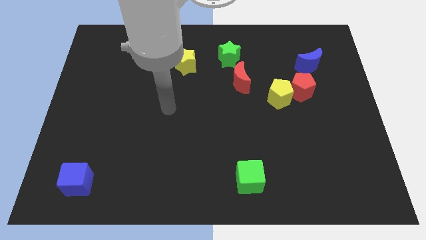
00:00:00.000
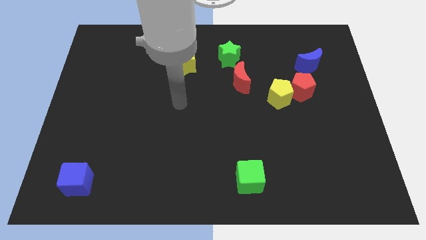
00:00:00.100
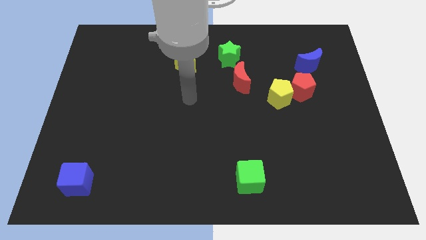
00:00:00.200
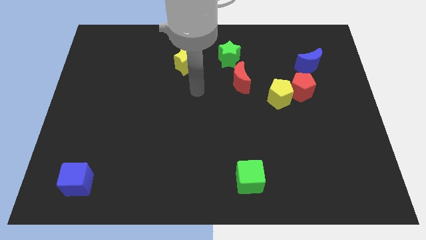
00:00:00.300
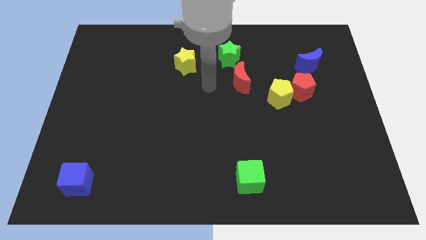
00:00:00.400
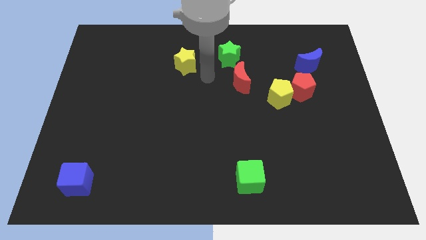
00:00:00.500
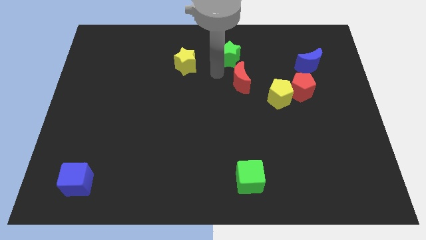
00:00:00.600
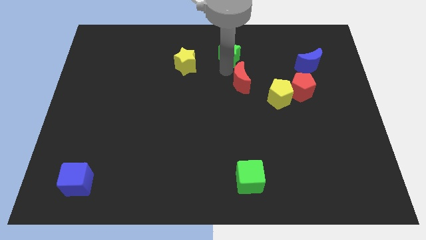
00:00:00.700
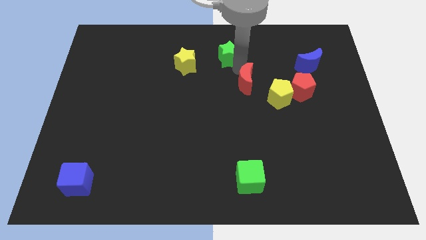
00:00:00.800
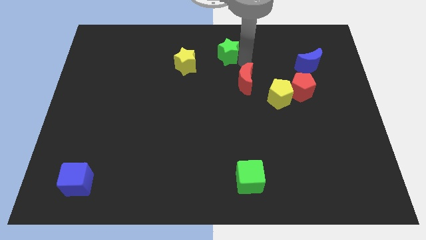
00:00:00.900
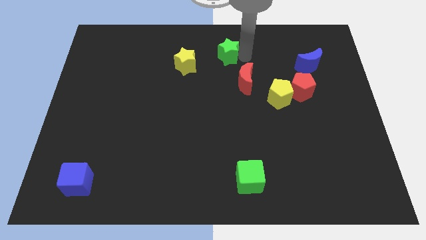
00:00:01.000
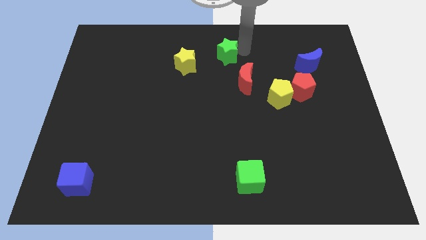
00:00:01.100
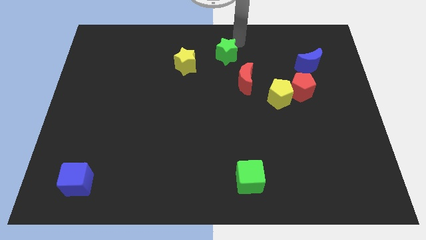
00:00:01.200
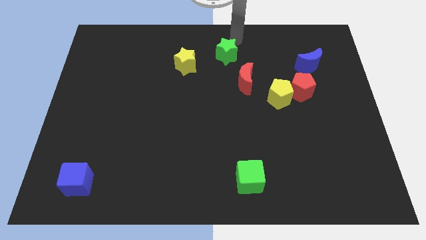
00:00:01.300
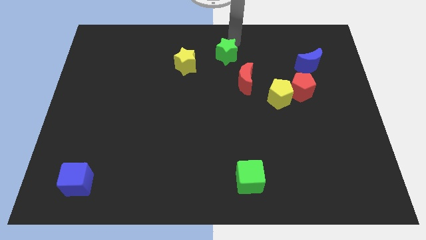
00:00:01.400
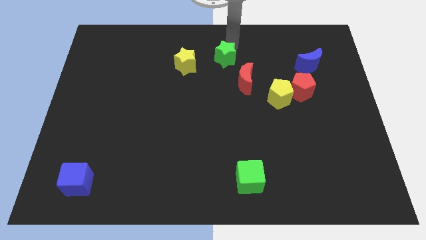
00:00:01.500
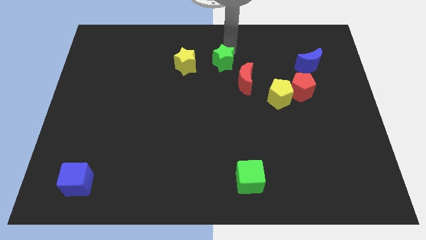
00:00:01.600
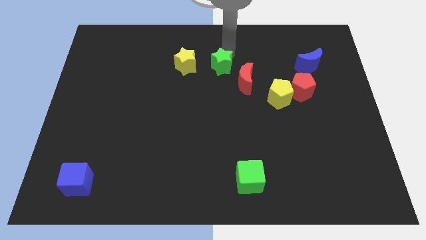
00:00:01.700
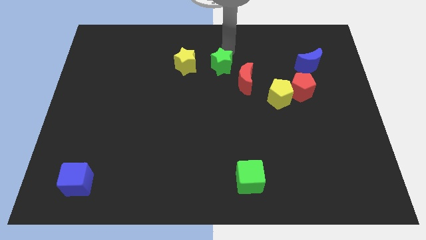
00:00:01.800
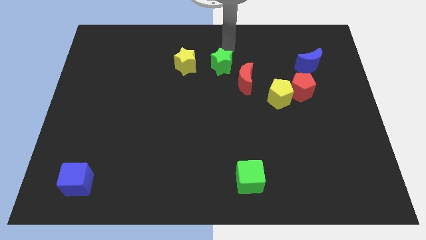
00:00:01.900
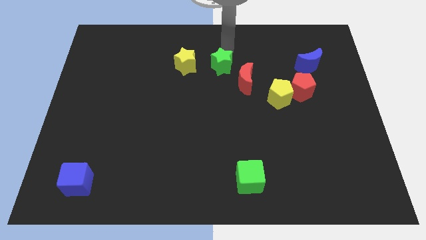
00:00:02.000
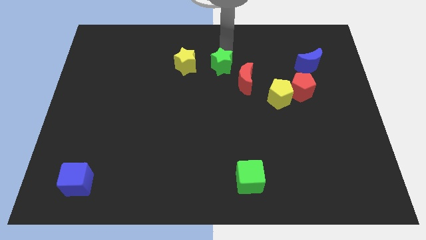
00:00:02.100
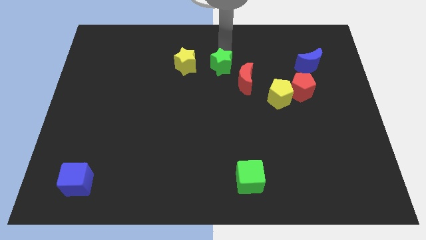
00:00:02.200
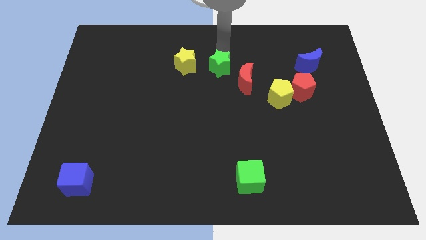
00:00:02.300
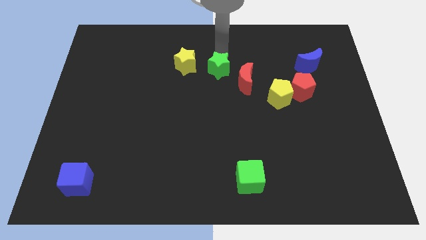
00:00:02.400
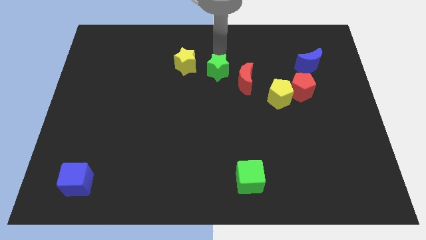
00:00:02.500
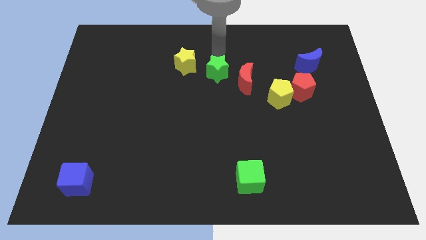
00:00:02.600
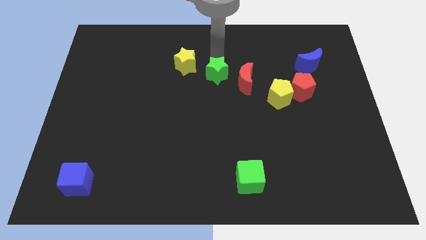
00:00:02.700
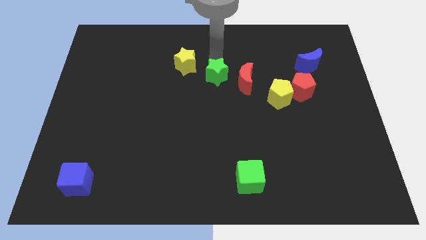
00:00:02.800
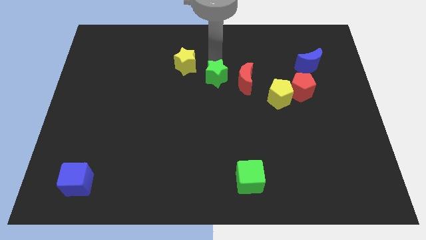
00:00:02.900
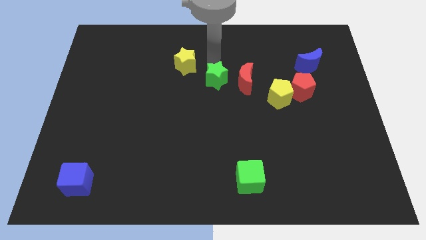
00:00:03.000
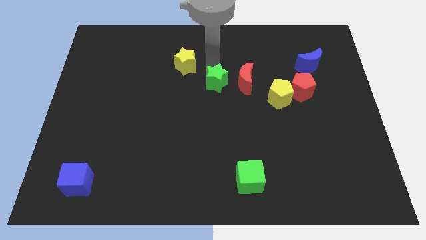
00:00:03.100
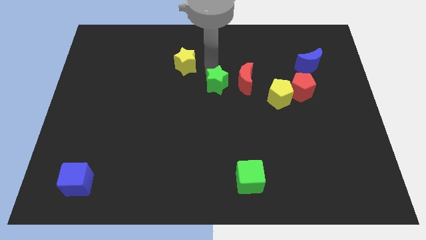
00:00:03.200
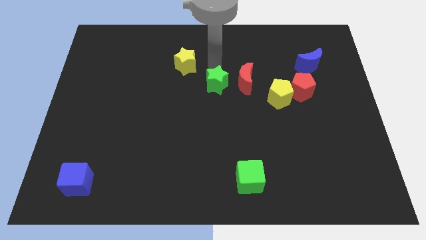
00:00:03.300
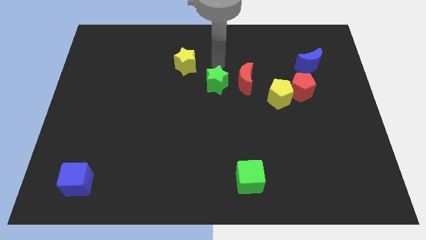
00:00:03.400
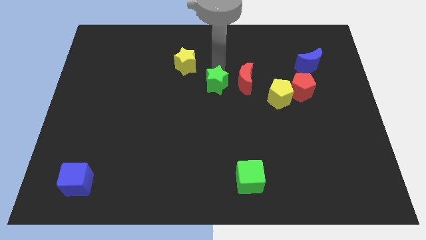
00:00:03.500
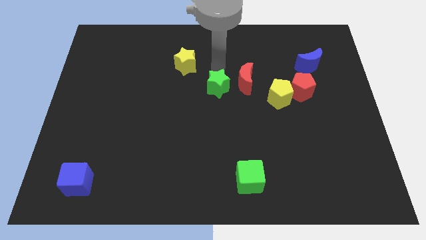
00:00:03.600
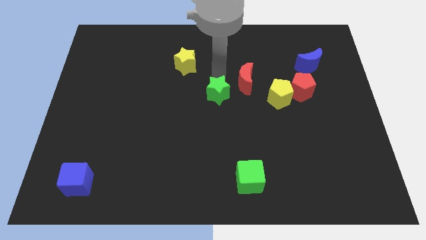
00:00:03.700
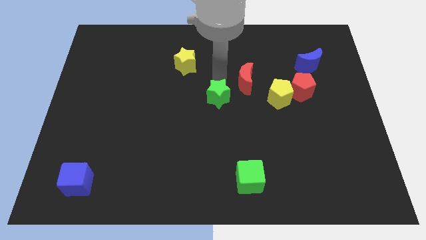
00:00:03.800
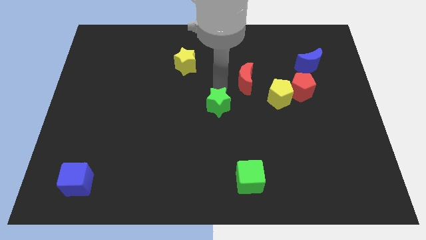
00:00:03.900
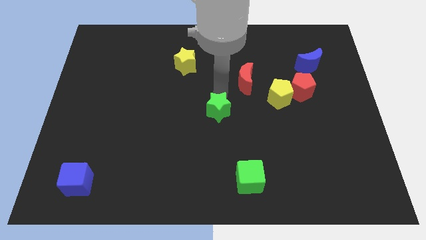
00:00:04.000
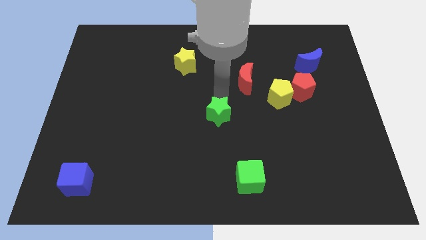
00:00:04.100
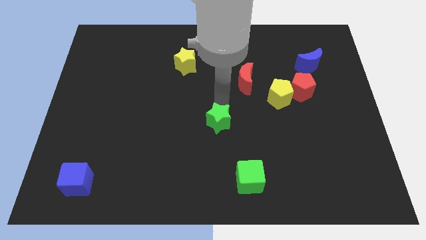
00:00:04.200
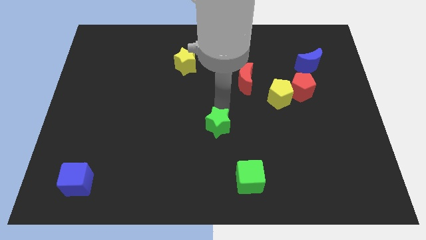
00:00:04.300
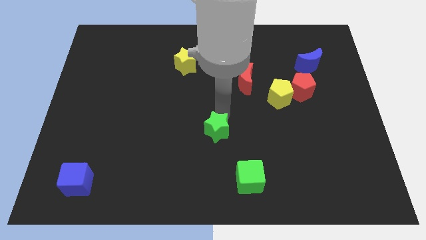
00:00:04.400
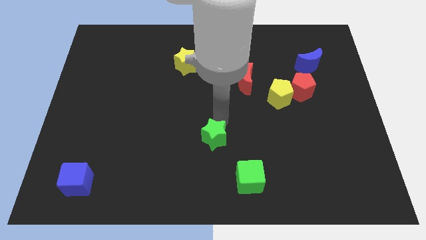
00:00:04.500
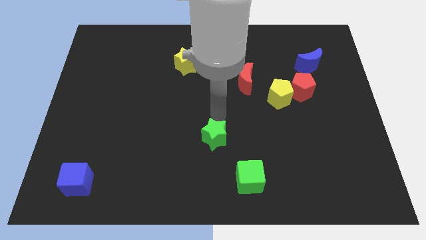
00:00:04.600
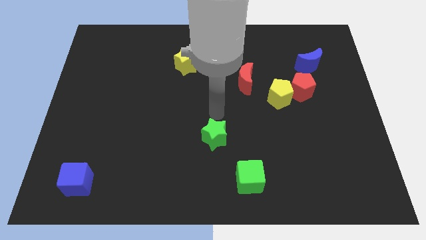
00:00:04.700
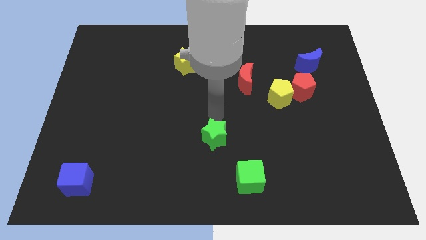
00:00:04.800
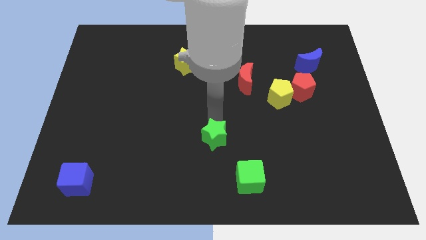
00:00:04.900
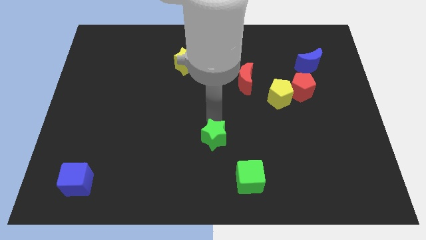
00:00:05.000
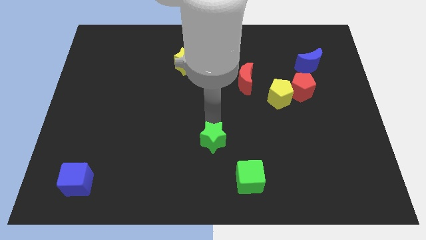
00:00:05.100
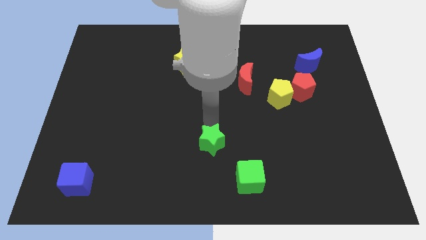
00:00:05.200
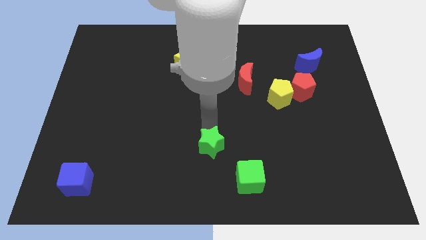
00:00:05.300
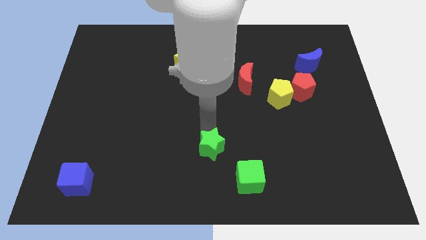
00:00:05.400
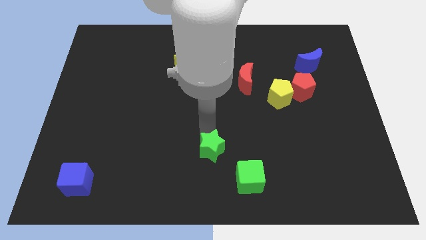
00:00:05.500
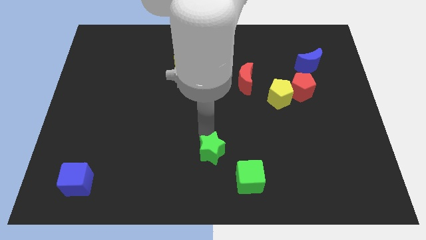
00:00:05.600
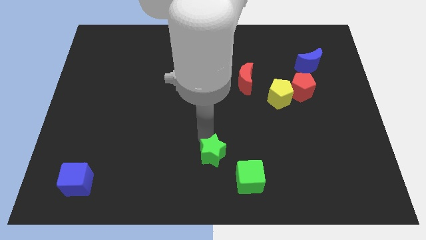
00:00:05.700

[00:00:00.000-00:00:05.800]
put the green star to the bottom

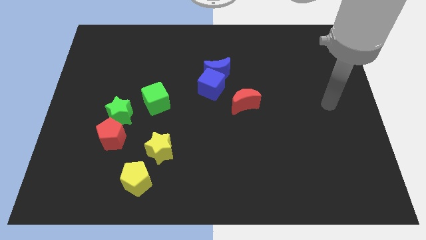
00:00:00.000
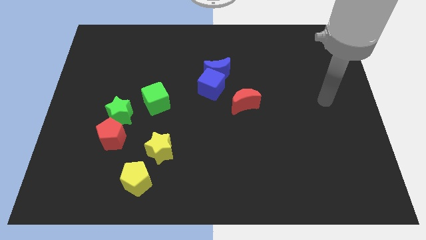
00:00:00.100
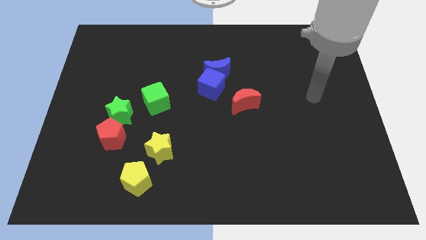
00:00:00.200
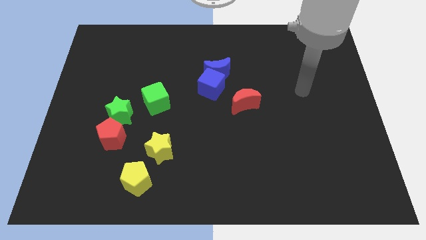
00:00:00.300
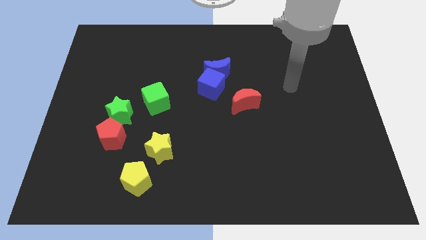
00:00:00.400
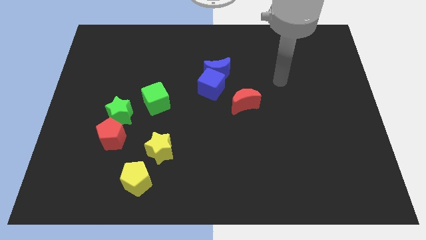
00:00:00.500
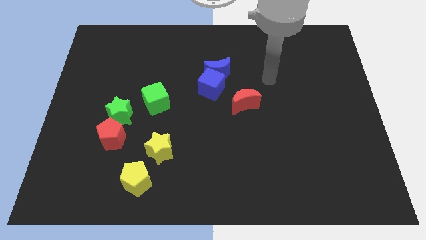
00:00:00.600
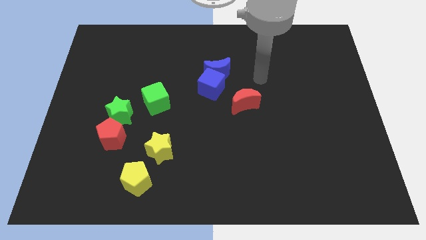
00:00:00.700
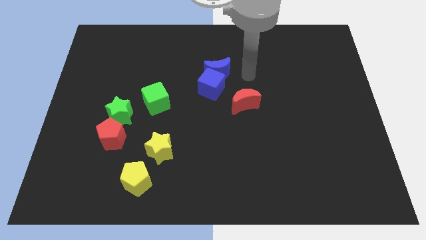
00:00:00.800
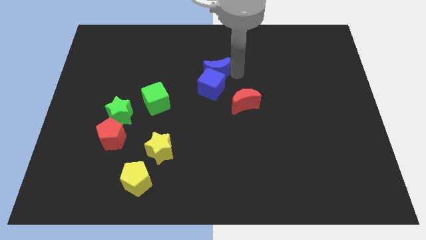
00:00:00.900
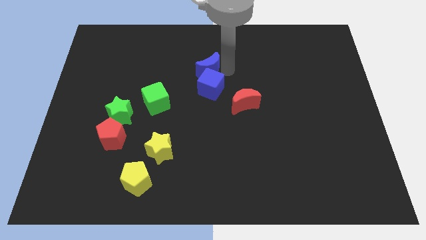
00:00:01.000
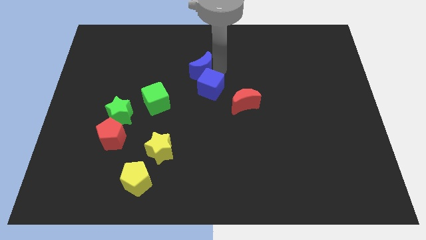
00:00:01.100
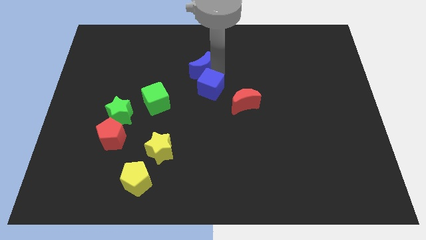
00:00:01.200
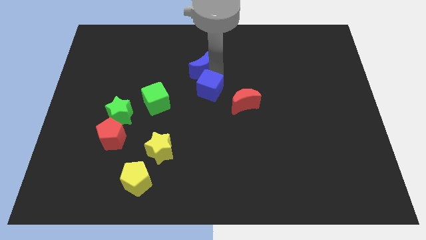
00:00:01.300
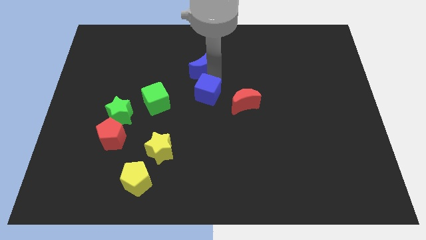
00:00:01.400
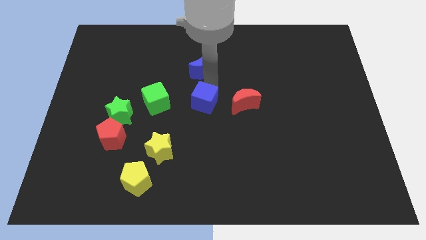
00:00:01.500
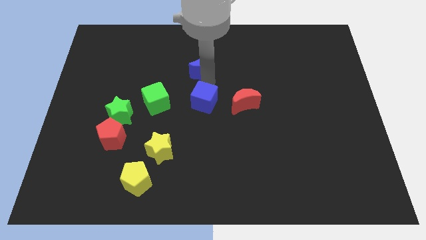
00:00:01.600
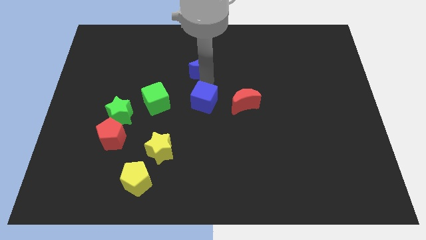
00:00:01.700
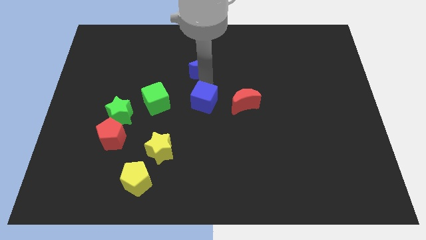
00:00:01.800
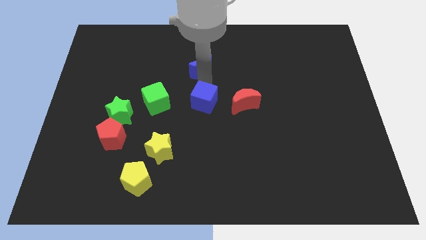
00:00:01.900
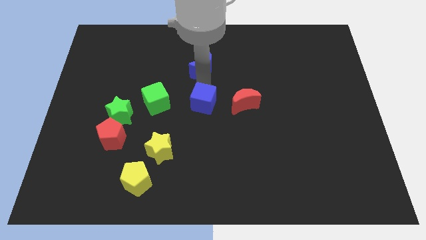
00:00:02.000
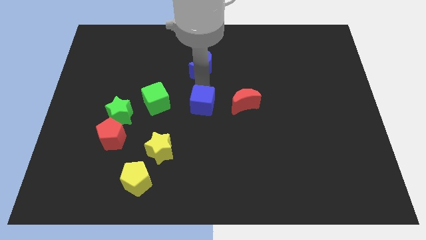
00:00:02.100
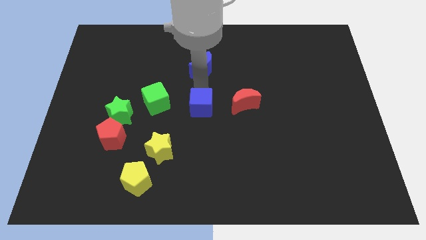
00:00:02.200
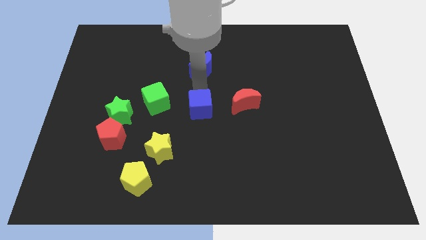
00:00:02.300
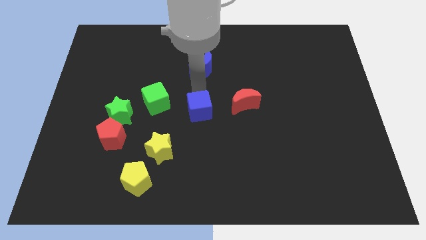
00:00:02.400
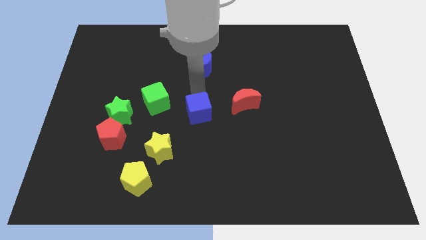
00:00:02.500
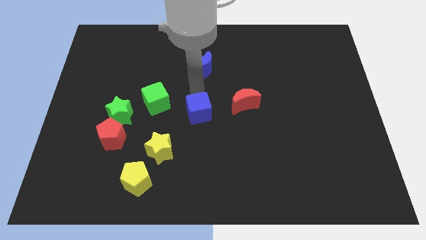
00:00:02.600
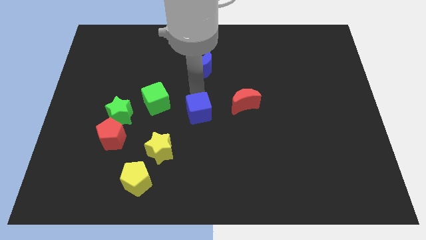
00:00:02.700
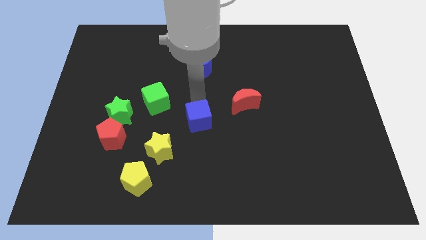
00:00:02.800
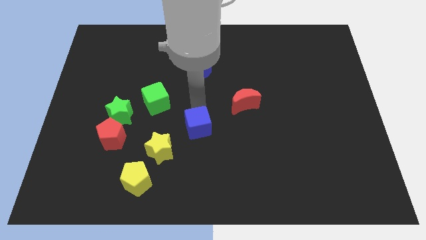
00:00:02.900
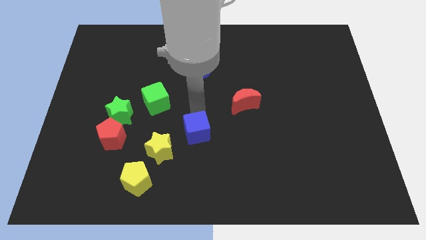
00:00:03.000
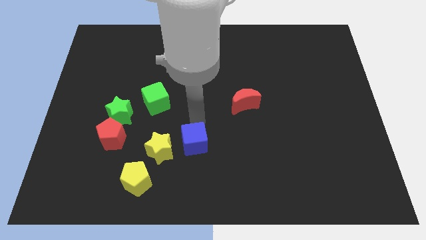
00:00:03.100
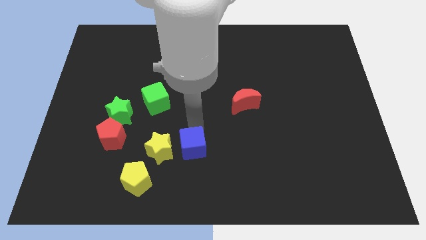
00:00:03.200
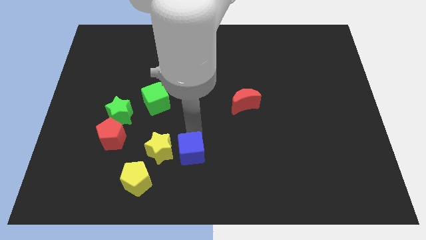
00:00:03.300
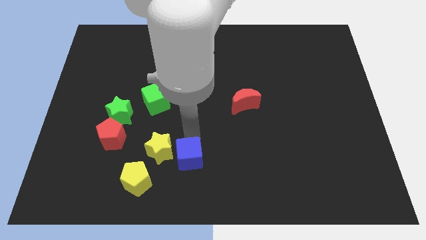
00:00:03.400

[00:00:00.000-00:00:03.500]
slide the blue cube to the bottom side
